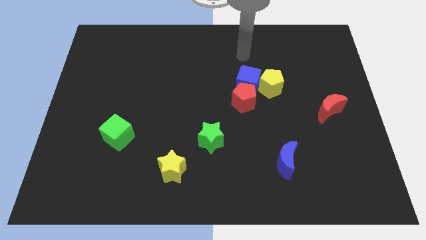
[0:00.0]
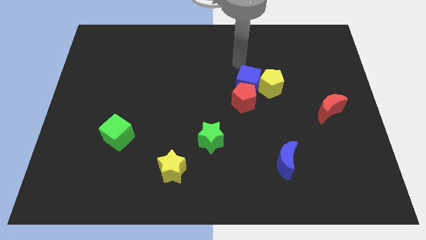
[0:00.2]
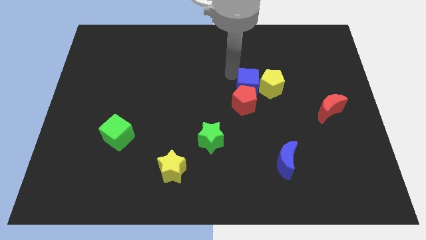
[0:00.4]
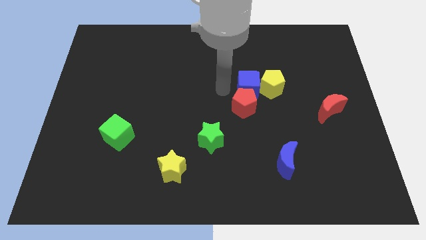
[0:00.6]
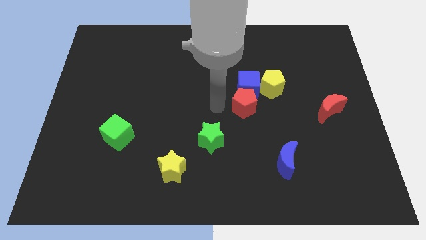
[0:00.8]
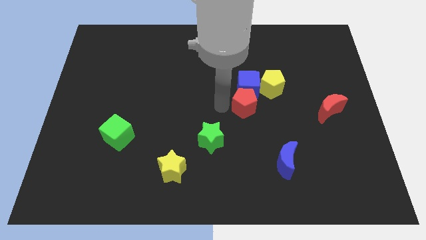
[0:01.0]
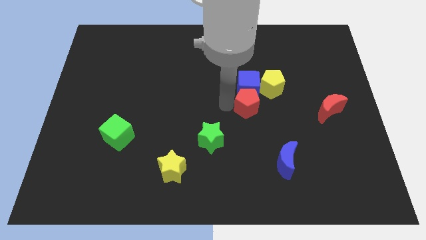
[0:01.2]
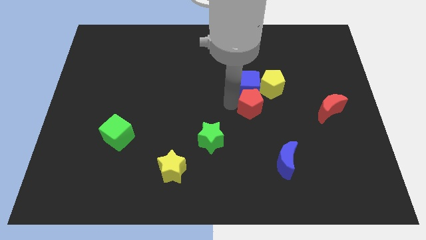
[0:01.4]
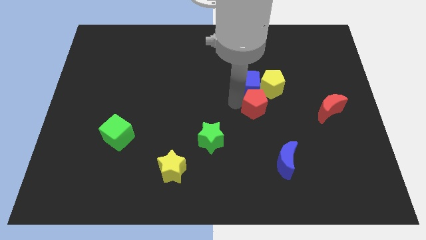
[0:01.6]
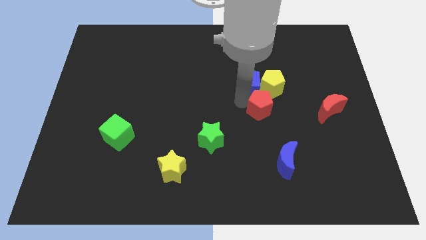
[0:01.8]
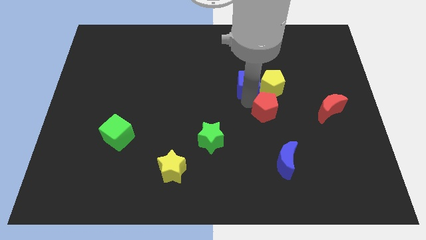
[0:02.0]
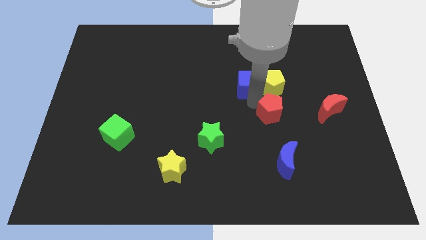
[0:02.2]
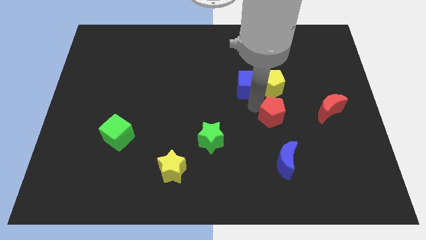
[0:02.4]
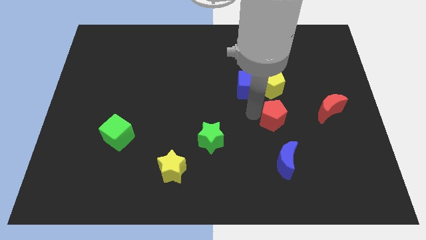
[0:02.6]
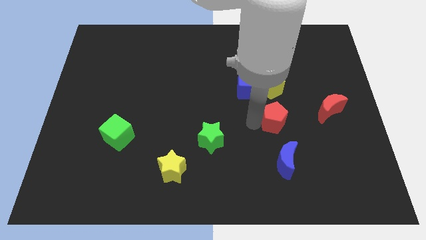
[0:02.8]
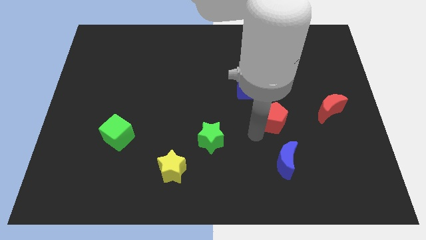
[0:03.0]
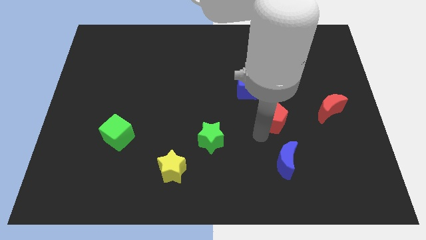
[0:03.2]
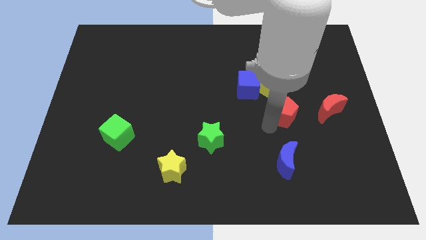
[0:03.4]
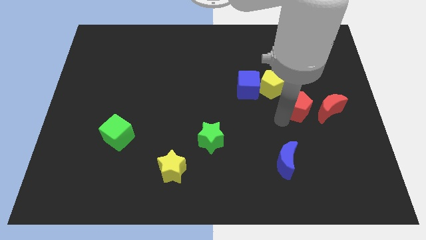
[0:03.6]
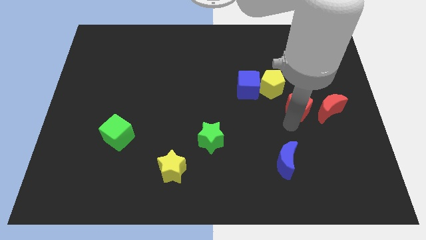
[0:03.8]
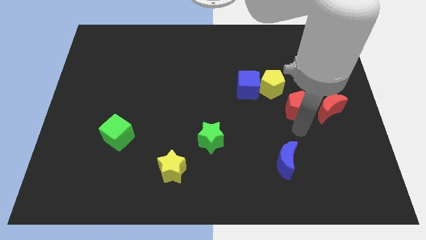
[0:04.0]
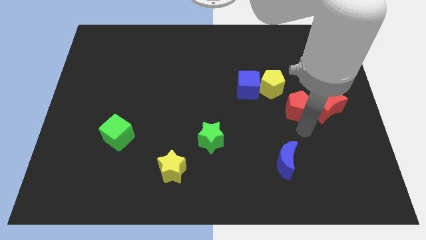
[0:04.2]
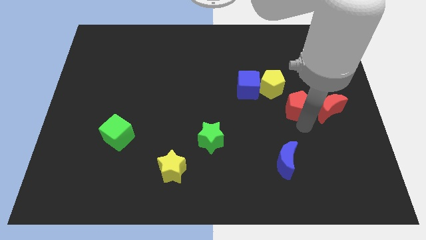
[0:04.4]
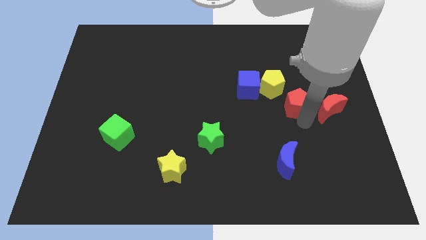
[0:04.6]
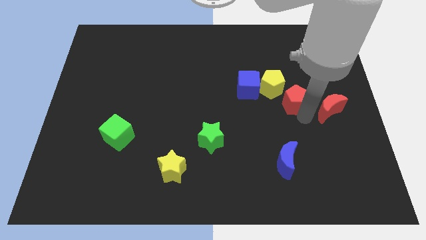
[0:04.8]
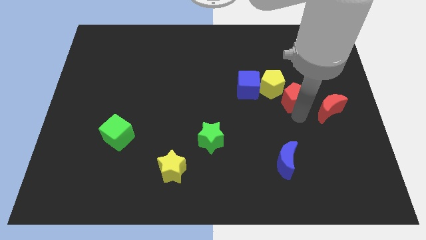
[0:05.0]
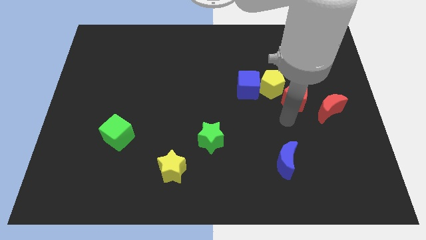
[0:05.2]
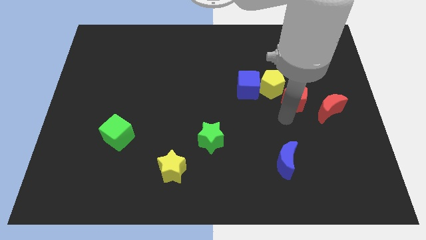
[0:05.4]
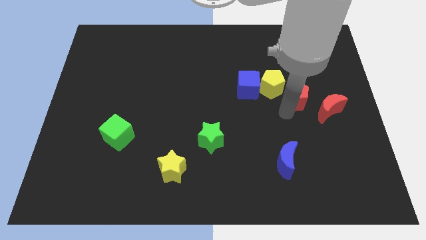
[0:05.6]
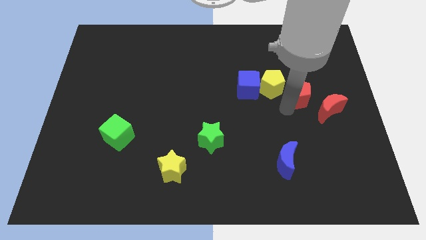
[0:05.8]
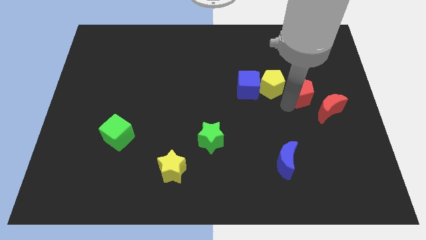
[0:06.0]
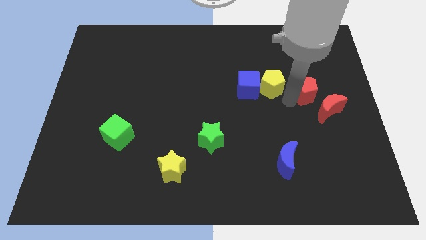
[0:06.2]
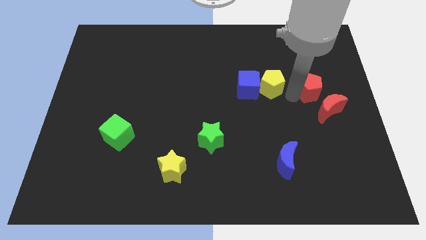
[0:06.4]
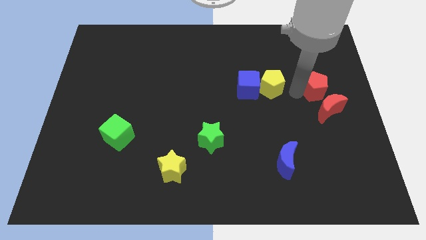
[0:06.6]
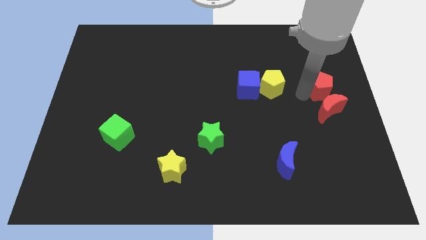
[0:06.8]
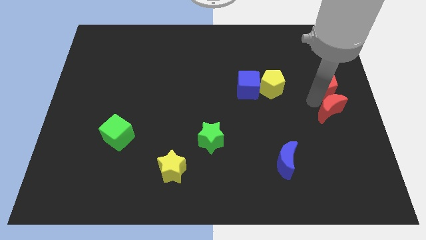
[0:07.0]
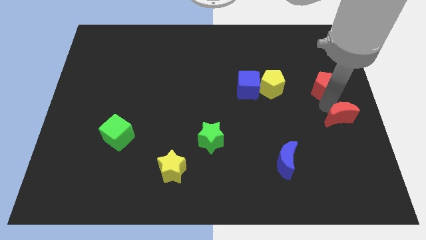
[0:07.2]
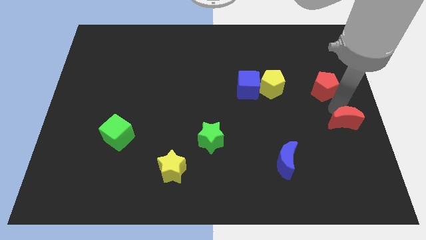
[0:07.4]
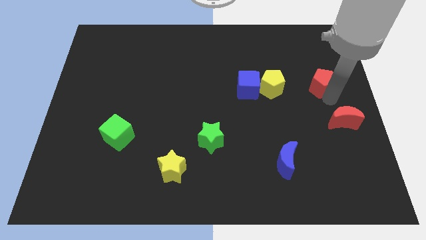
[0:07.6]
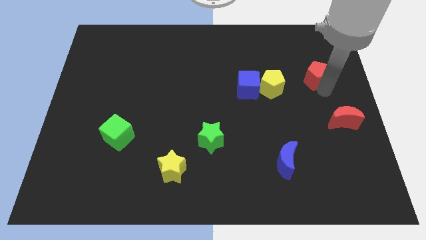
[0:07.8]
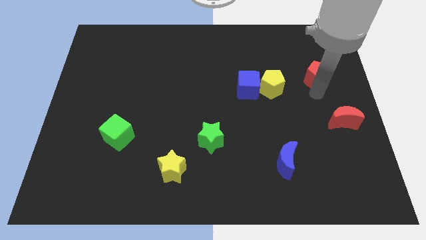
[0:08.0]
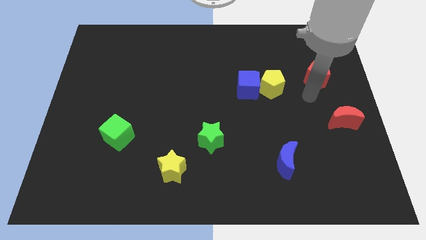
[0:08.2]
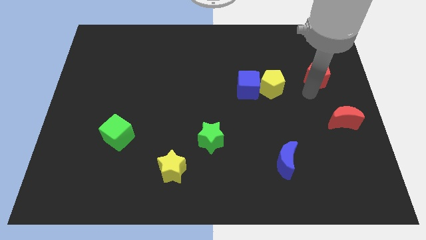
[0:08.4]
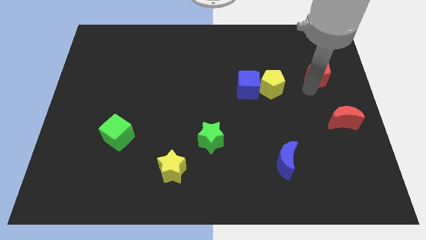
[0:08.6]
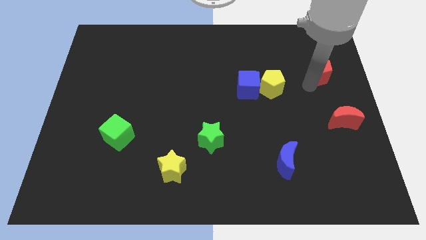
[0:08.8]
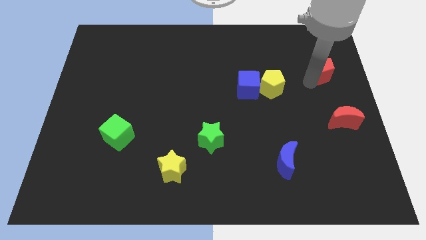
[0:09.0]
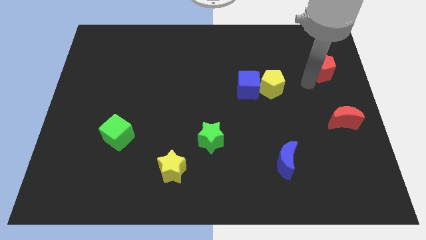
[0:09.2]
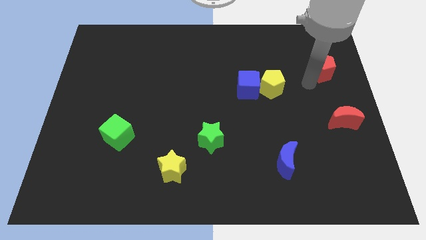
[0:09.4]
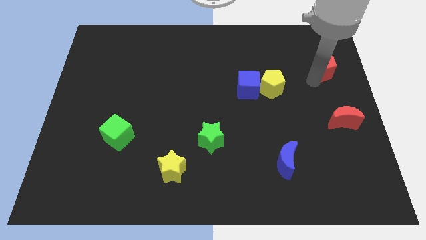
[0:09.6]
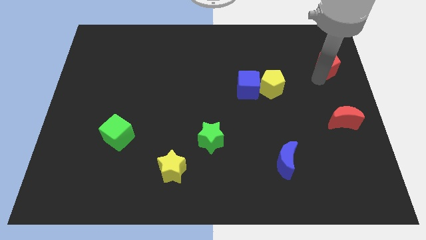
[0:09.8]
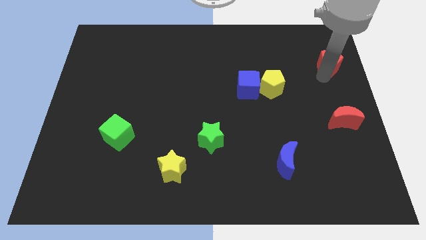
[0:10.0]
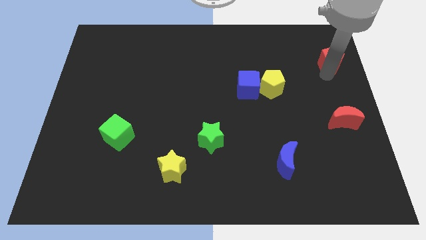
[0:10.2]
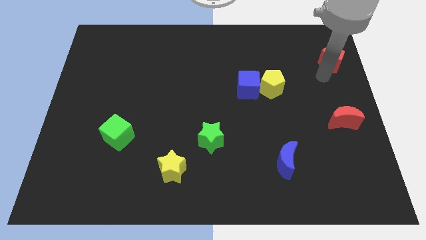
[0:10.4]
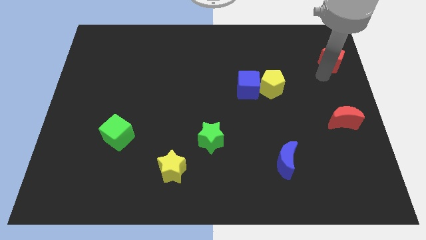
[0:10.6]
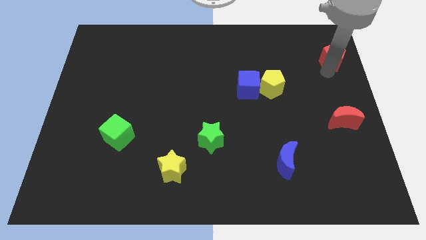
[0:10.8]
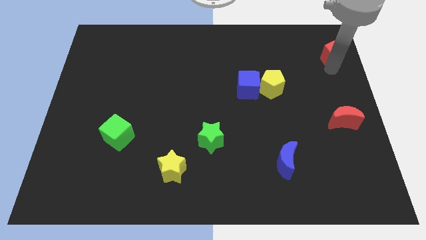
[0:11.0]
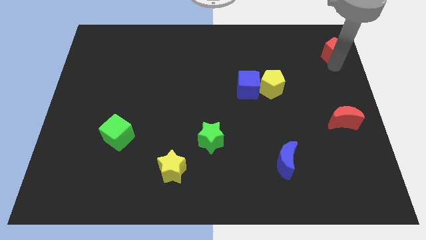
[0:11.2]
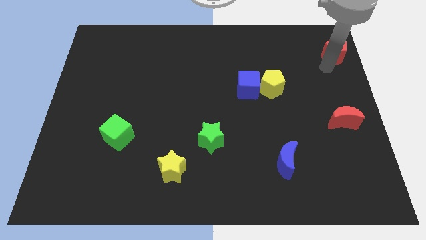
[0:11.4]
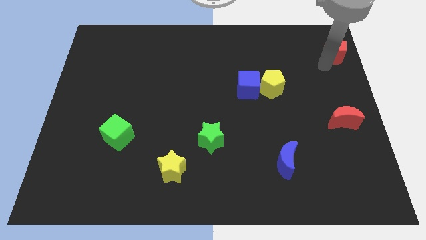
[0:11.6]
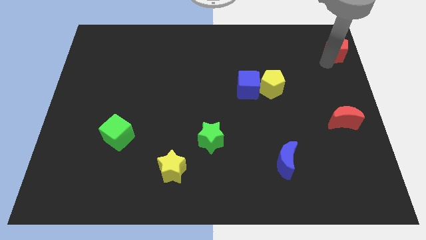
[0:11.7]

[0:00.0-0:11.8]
put the red pentagon to the top right corner

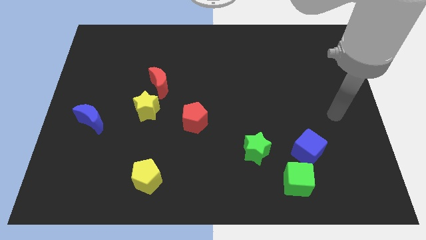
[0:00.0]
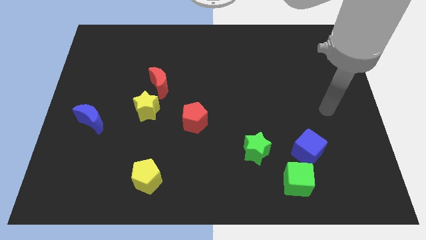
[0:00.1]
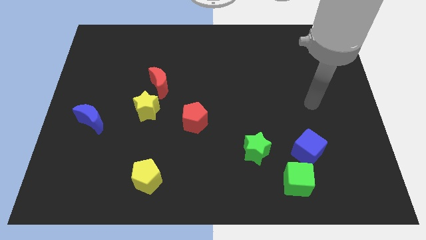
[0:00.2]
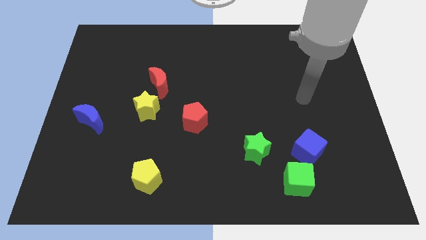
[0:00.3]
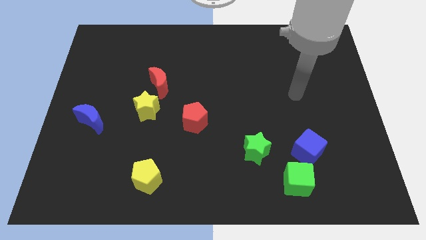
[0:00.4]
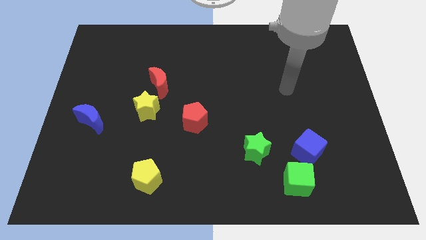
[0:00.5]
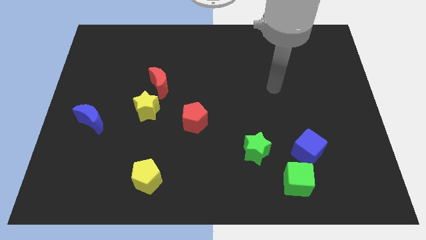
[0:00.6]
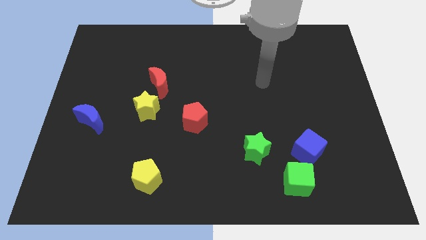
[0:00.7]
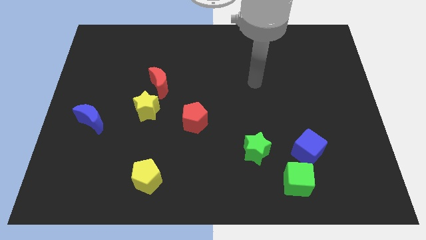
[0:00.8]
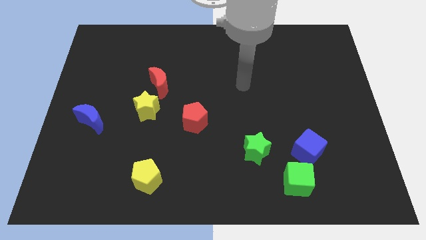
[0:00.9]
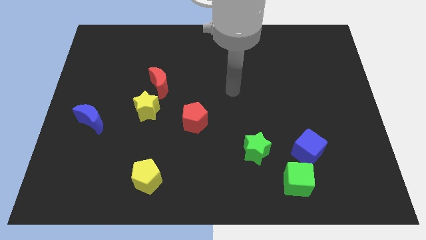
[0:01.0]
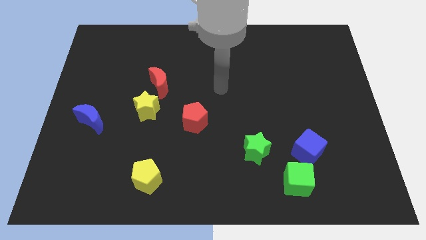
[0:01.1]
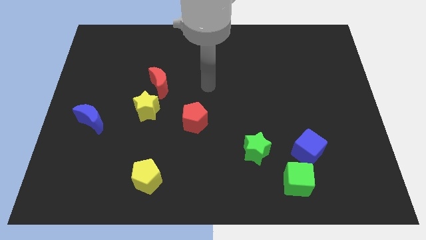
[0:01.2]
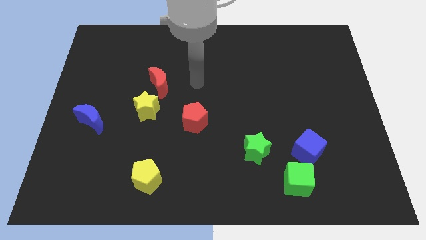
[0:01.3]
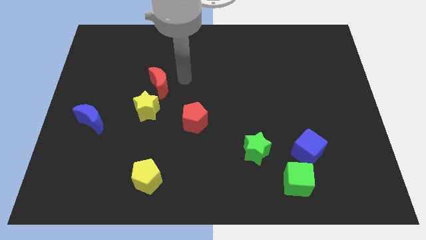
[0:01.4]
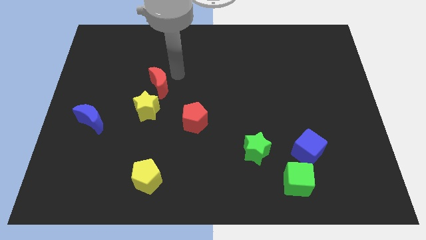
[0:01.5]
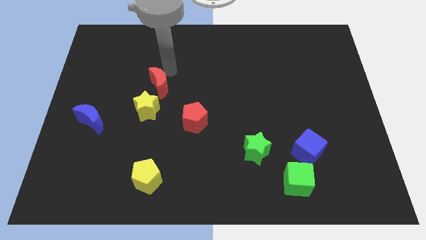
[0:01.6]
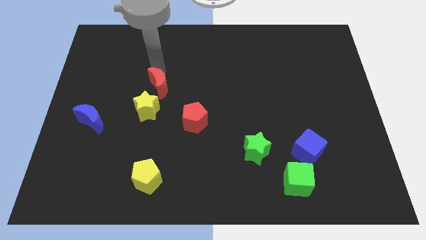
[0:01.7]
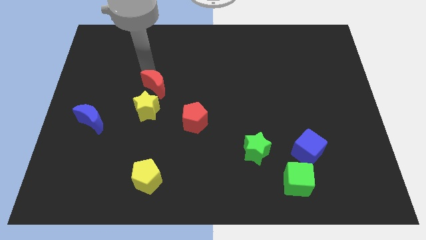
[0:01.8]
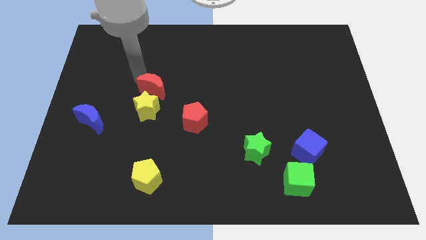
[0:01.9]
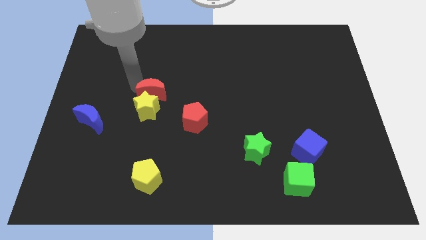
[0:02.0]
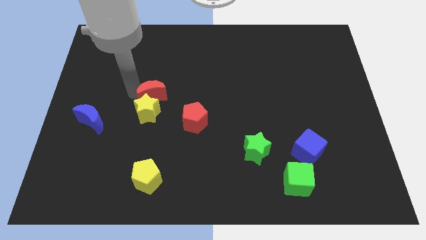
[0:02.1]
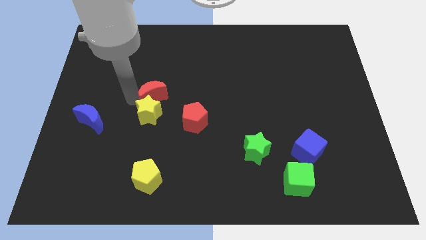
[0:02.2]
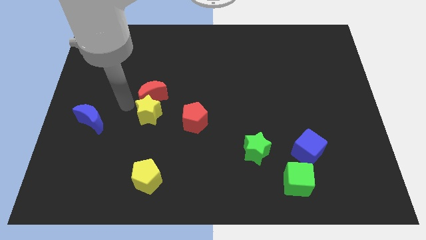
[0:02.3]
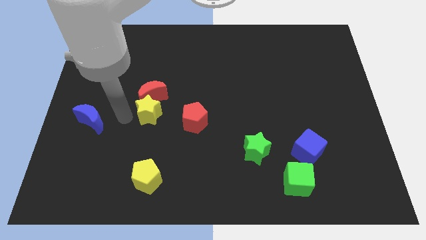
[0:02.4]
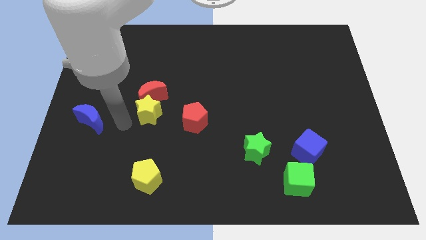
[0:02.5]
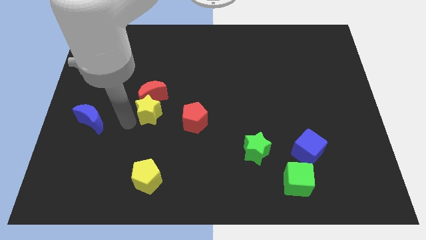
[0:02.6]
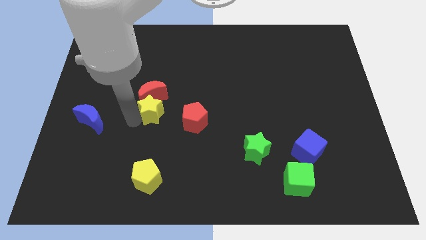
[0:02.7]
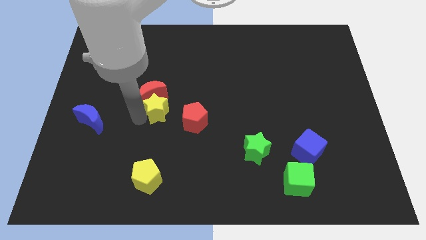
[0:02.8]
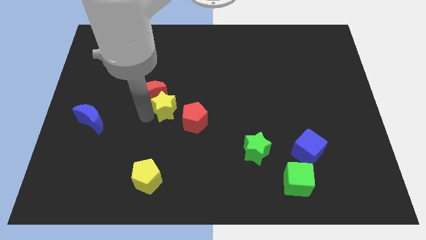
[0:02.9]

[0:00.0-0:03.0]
move the yellow star to the middle of the board
